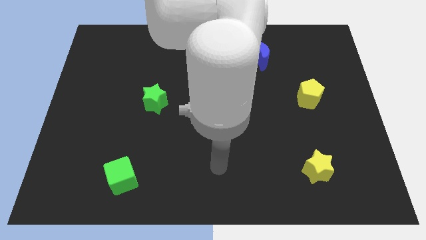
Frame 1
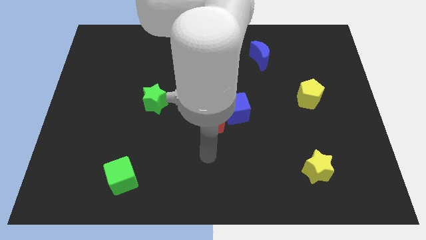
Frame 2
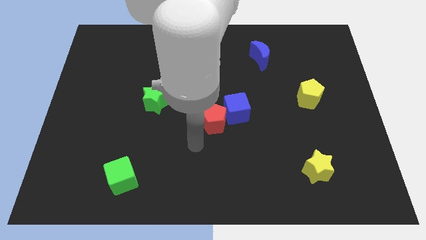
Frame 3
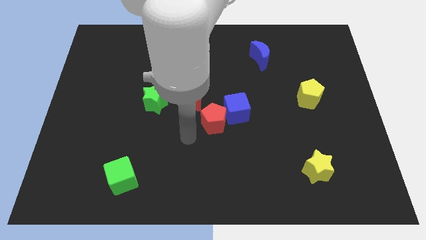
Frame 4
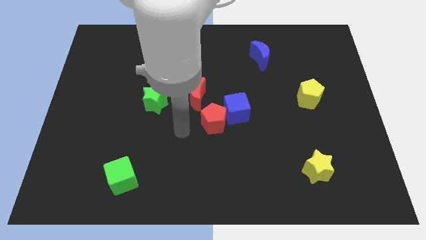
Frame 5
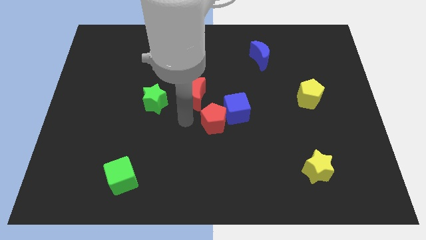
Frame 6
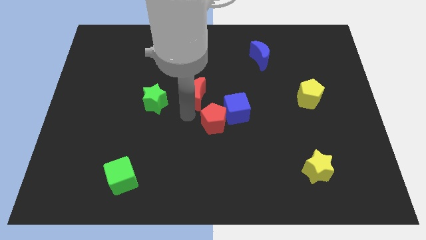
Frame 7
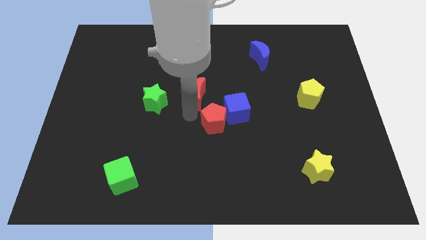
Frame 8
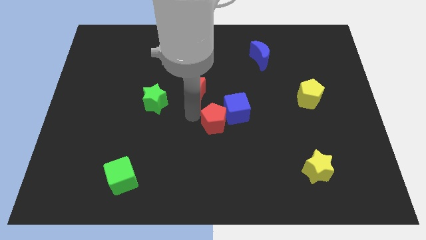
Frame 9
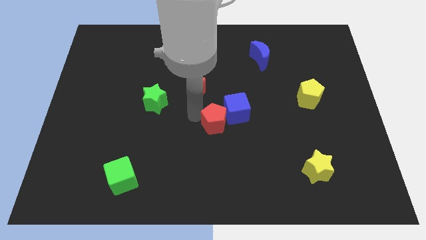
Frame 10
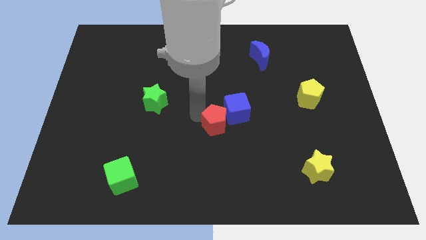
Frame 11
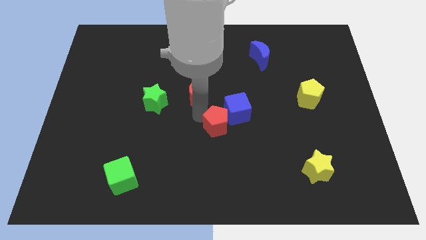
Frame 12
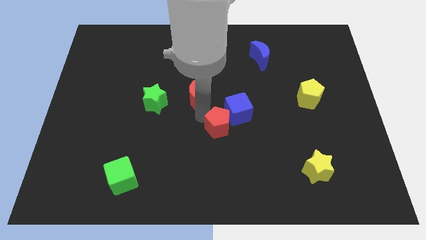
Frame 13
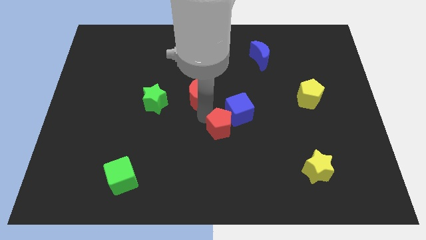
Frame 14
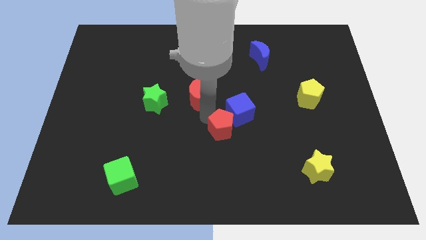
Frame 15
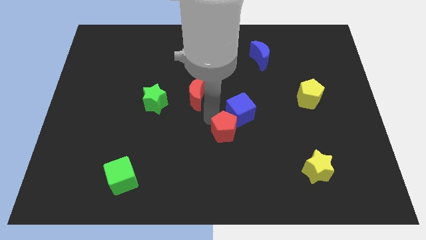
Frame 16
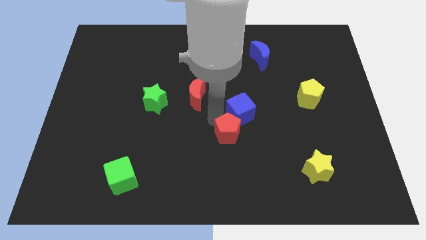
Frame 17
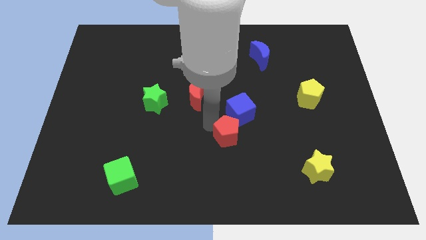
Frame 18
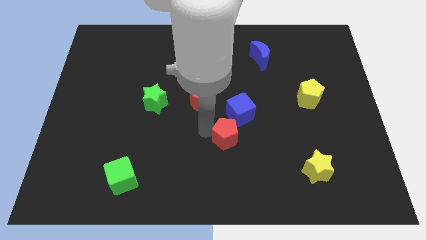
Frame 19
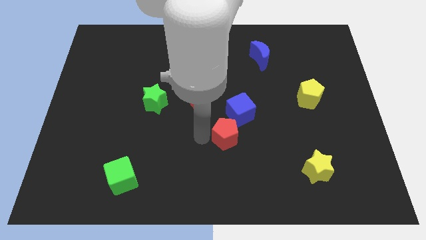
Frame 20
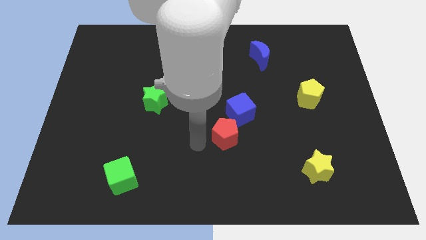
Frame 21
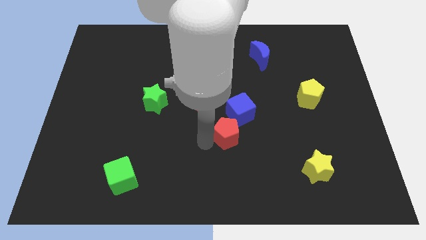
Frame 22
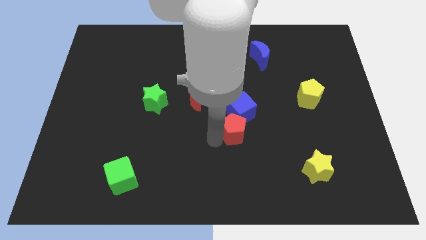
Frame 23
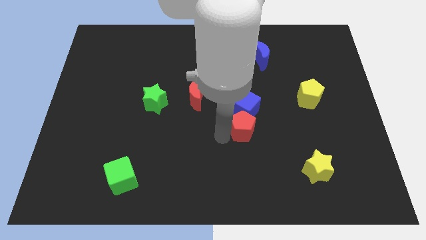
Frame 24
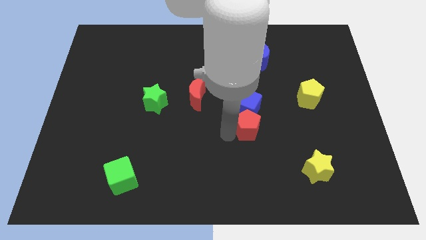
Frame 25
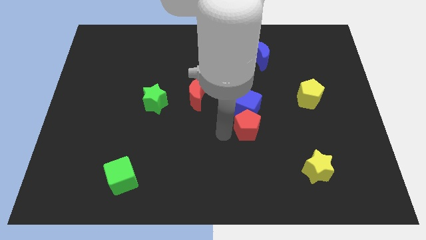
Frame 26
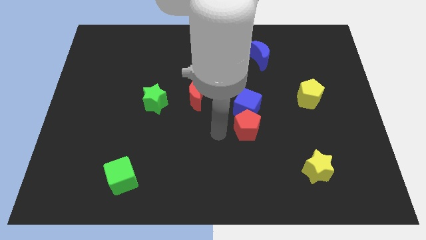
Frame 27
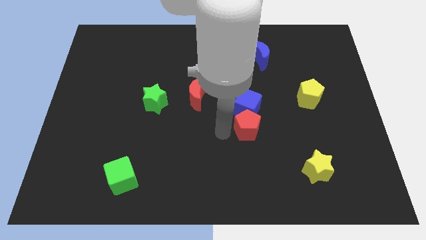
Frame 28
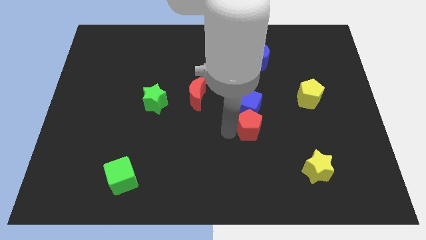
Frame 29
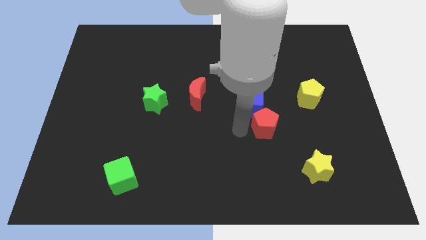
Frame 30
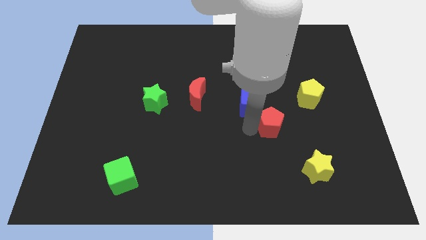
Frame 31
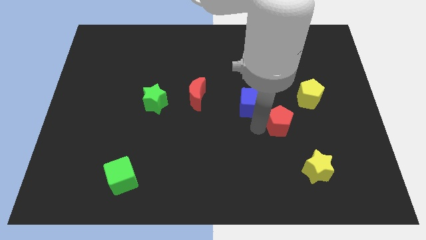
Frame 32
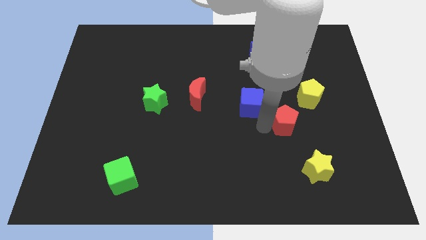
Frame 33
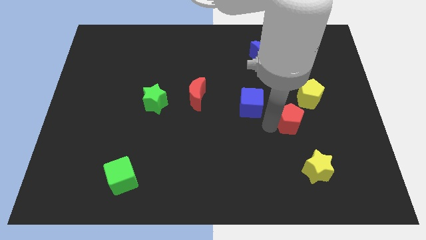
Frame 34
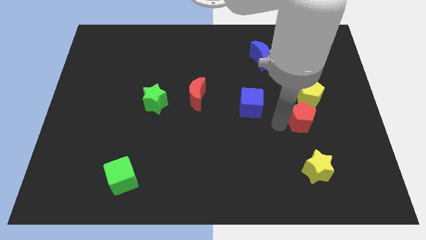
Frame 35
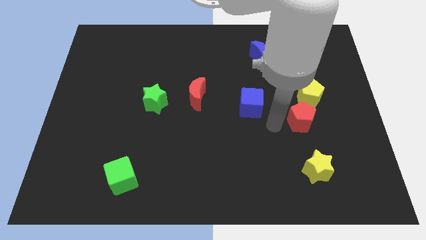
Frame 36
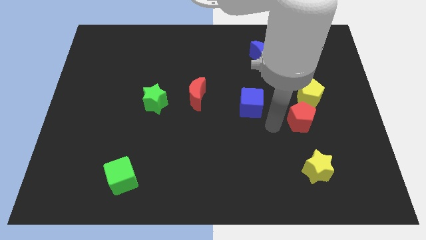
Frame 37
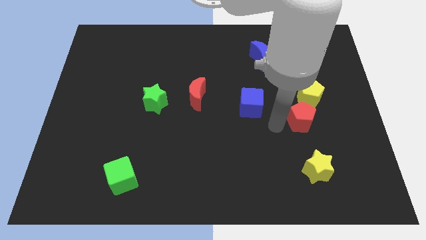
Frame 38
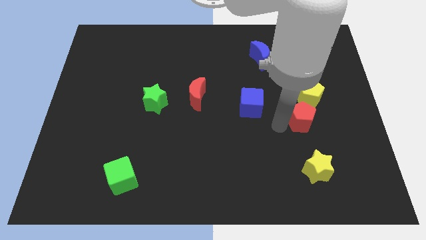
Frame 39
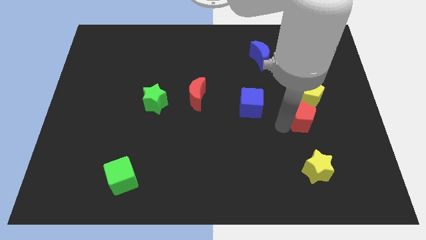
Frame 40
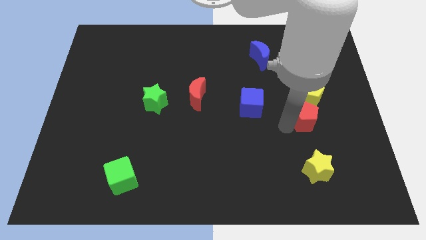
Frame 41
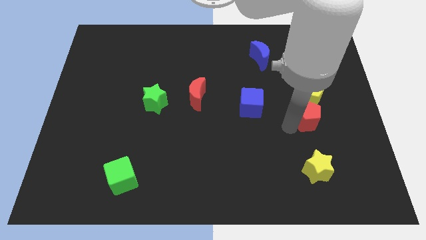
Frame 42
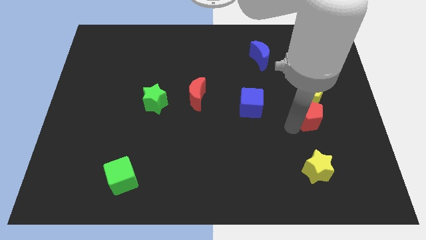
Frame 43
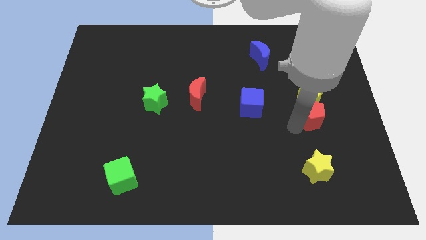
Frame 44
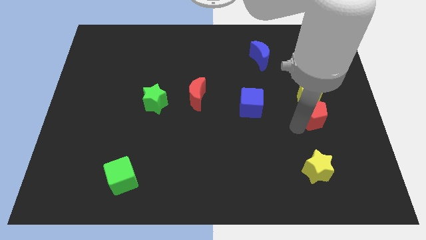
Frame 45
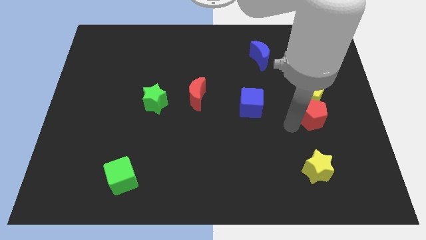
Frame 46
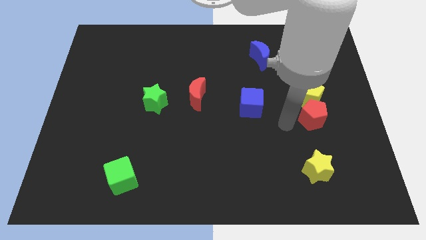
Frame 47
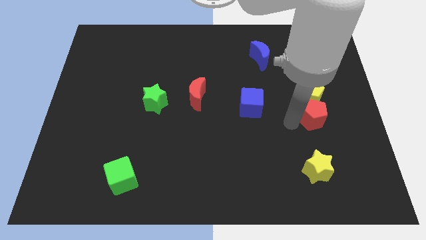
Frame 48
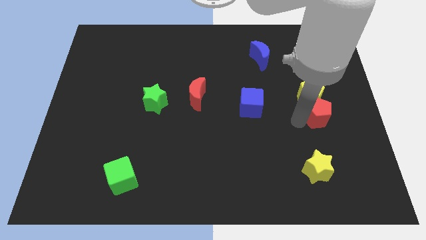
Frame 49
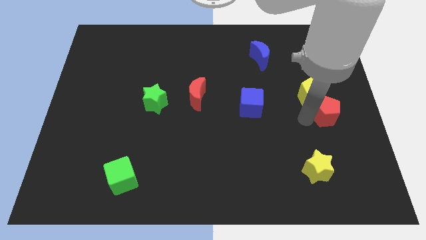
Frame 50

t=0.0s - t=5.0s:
move the red pentagon to the center right

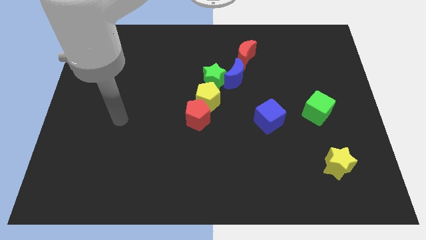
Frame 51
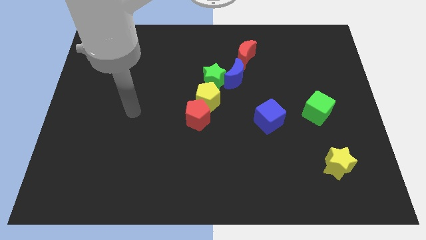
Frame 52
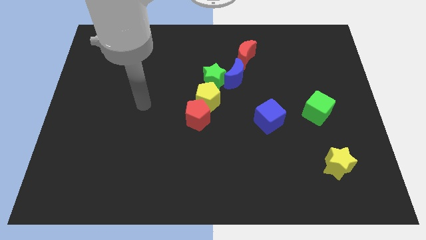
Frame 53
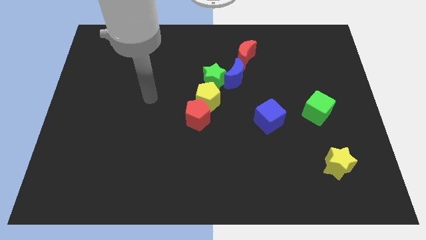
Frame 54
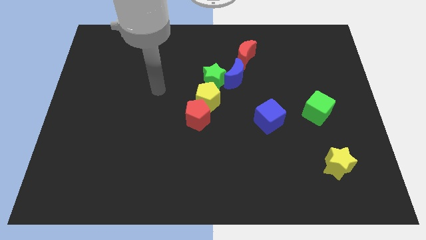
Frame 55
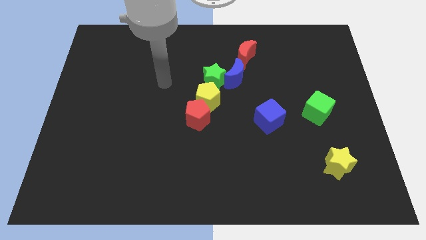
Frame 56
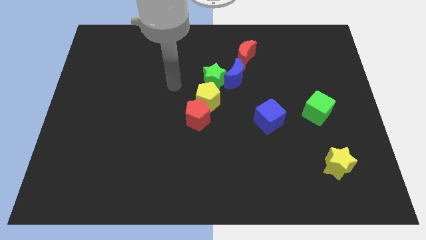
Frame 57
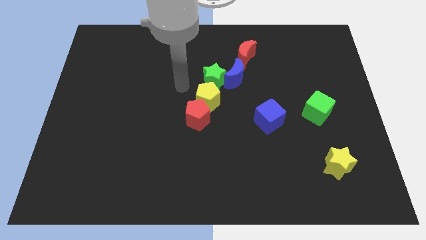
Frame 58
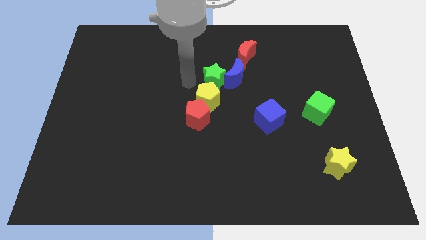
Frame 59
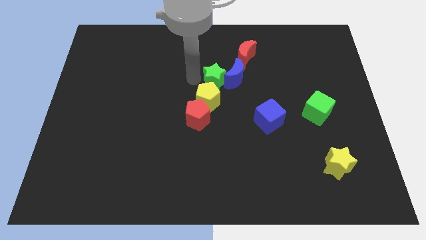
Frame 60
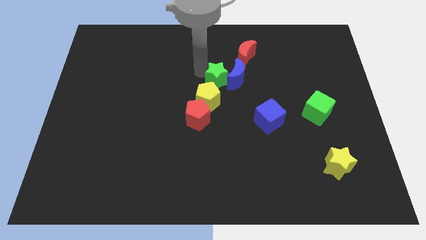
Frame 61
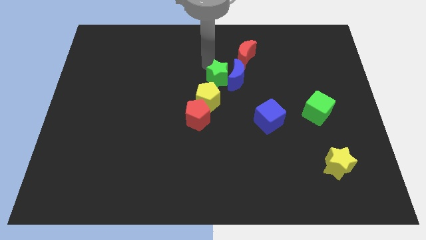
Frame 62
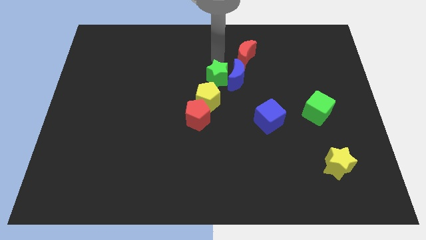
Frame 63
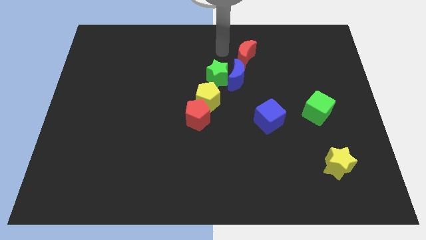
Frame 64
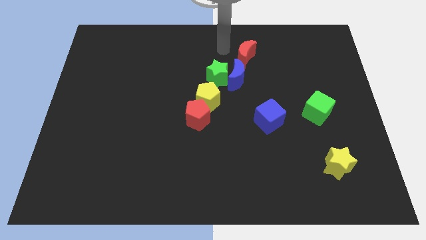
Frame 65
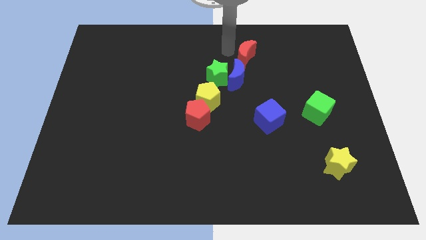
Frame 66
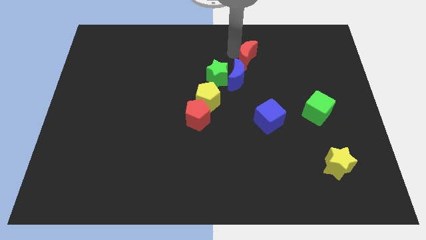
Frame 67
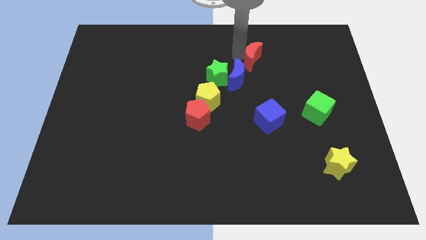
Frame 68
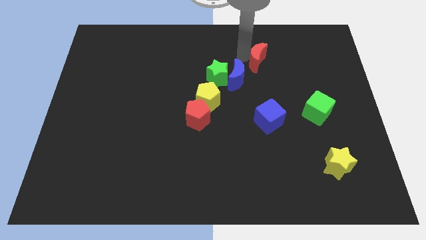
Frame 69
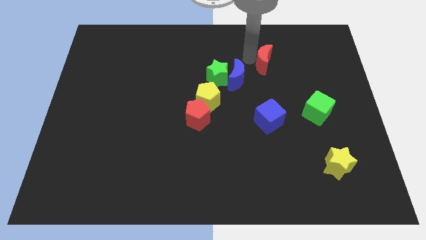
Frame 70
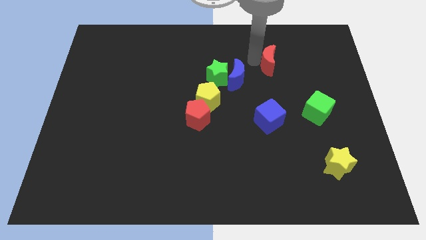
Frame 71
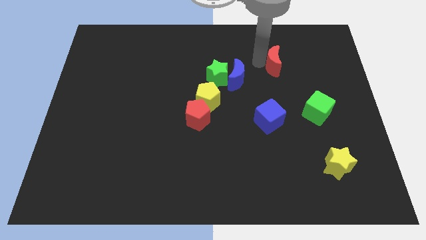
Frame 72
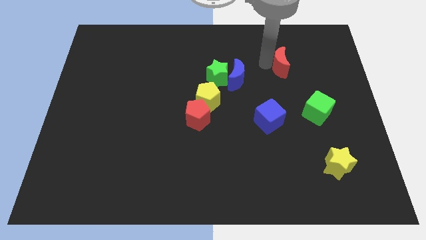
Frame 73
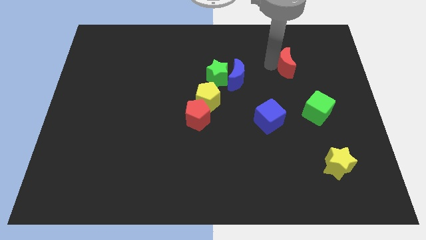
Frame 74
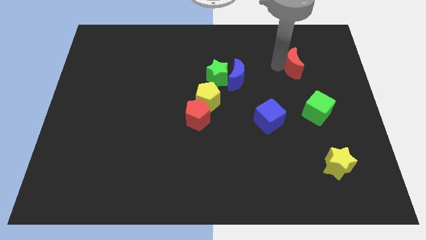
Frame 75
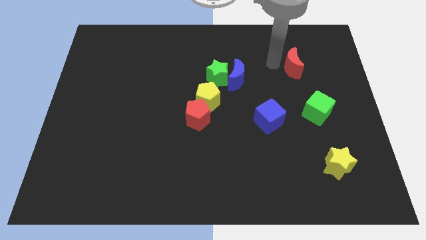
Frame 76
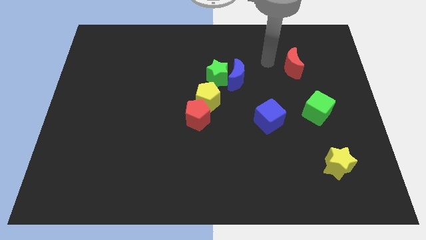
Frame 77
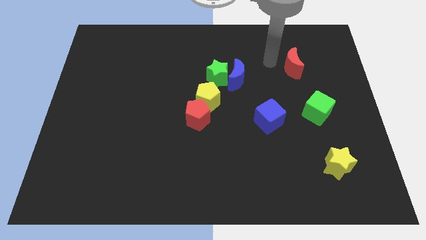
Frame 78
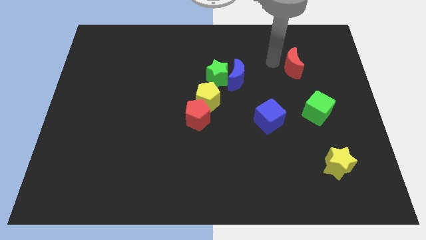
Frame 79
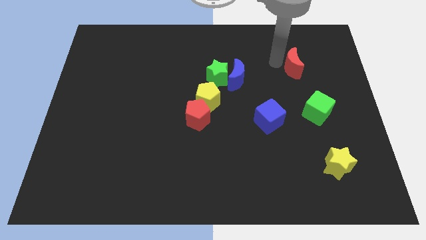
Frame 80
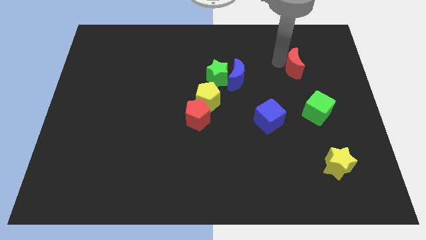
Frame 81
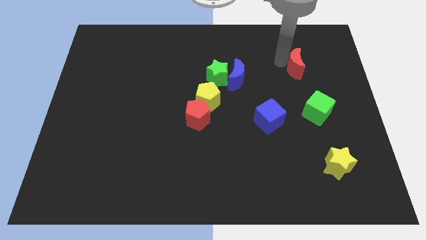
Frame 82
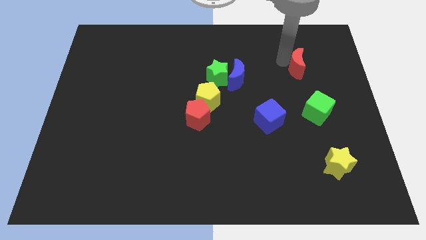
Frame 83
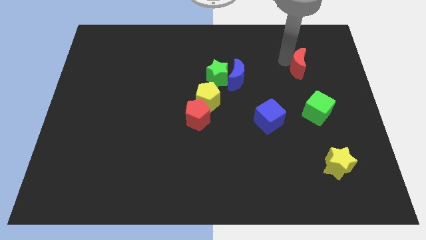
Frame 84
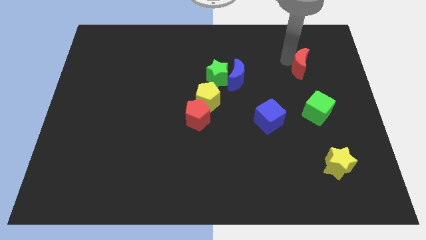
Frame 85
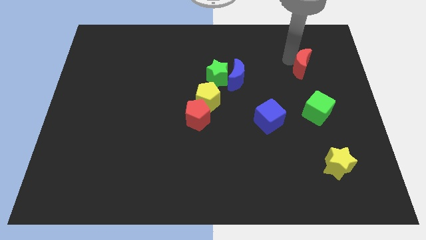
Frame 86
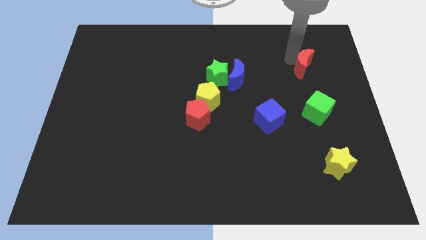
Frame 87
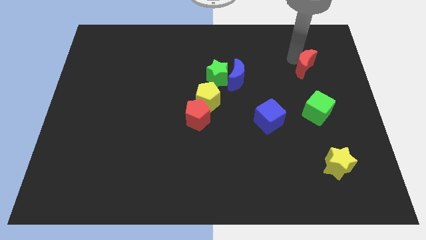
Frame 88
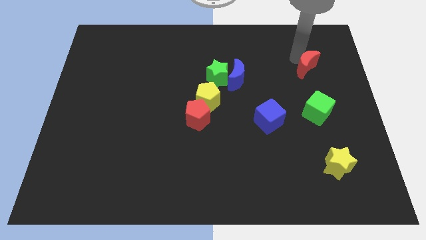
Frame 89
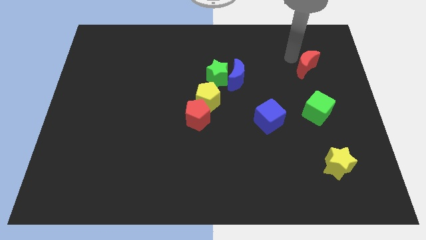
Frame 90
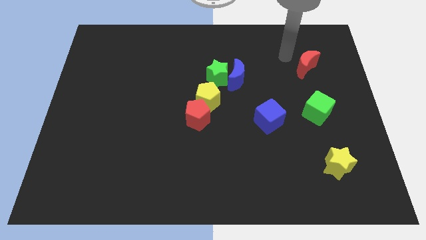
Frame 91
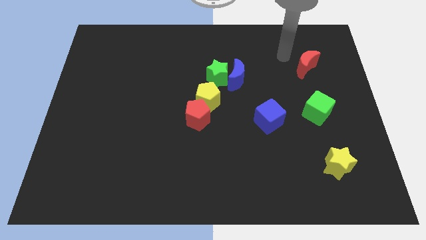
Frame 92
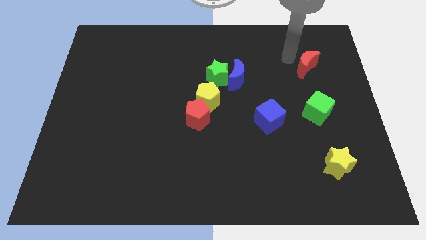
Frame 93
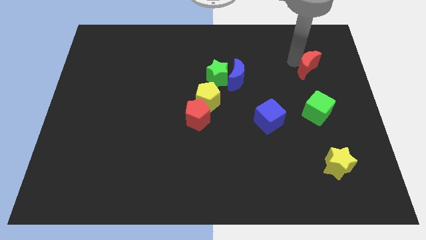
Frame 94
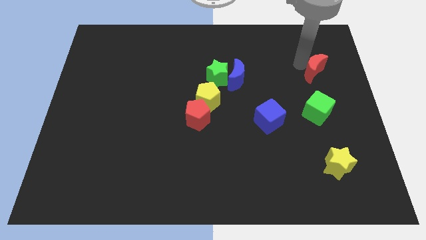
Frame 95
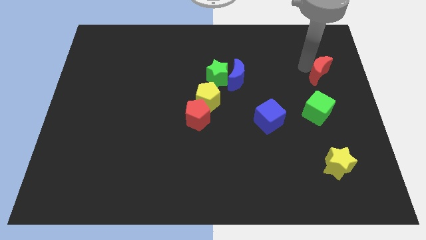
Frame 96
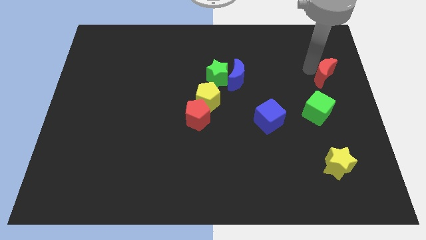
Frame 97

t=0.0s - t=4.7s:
push the red moon to the right side
